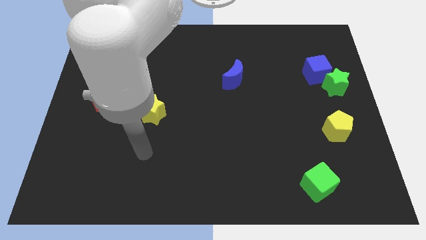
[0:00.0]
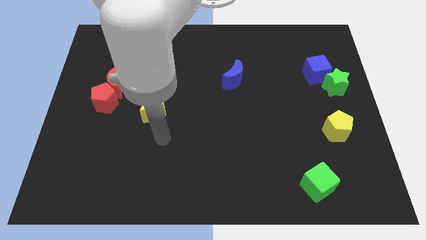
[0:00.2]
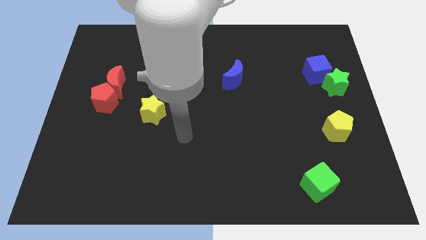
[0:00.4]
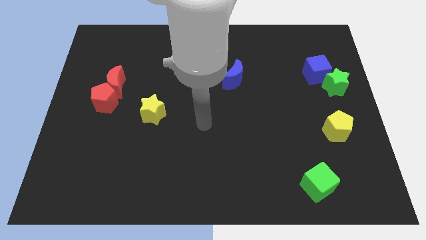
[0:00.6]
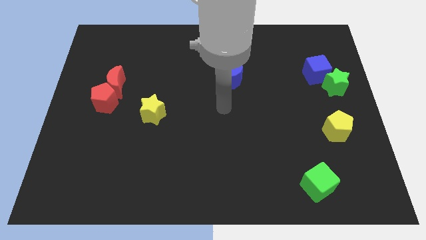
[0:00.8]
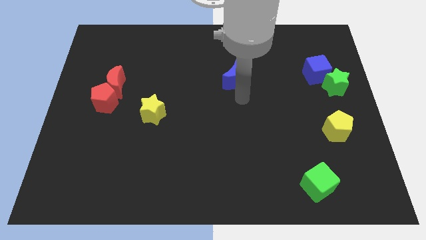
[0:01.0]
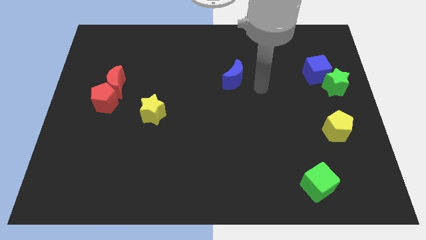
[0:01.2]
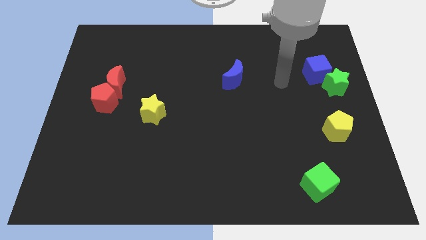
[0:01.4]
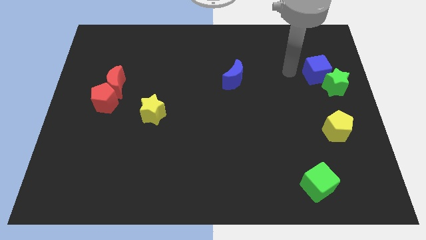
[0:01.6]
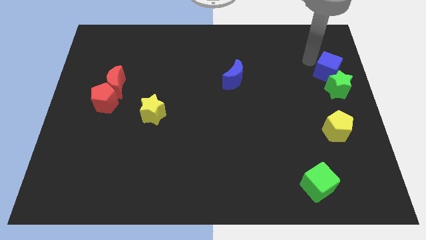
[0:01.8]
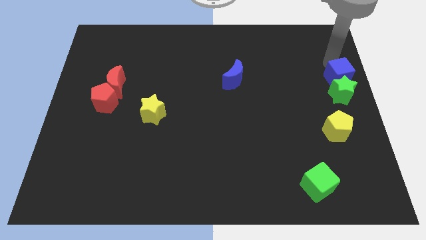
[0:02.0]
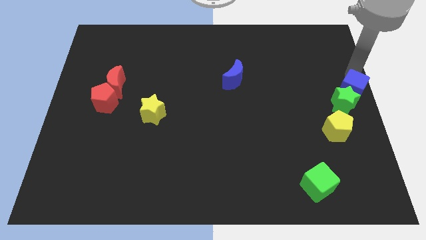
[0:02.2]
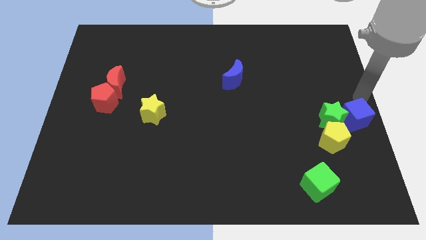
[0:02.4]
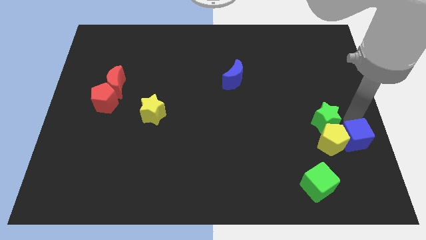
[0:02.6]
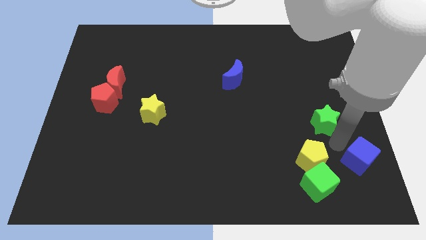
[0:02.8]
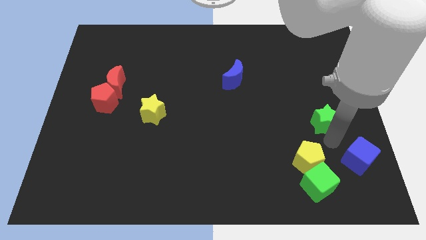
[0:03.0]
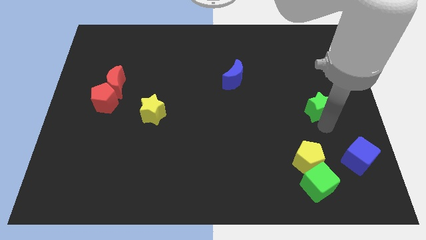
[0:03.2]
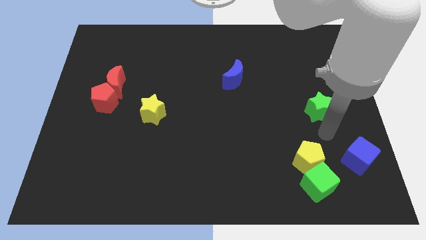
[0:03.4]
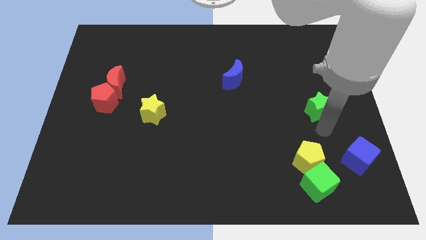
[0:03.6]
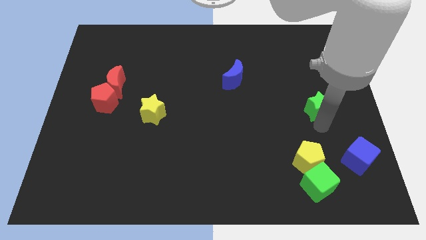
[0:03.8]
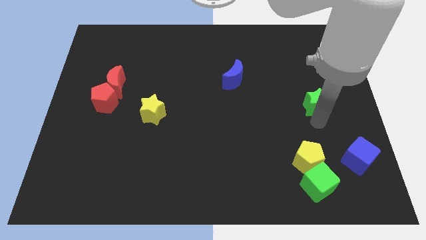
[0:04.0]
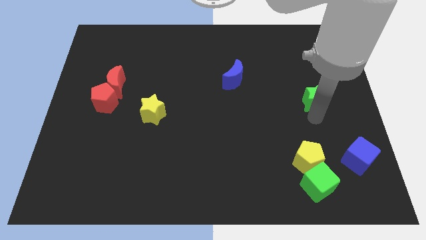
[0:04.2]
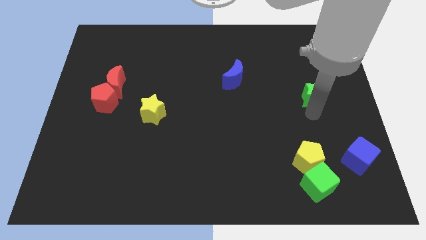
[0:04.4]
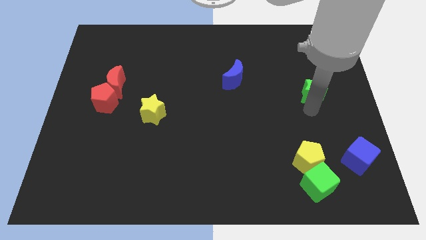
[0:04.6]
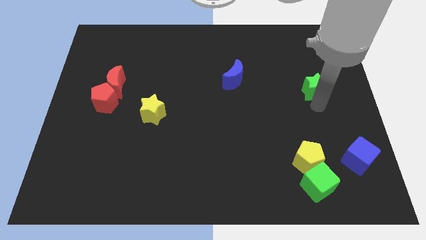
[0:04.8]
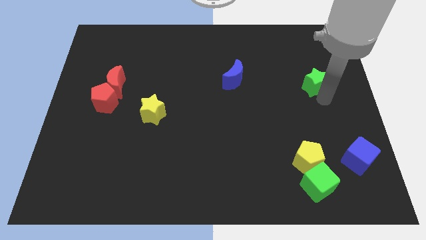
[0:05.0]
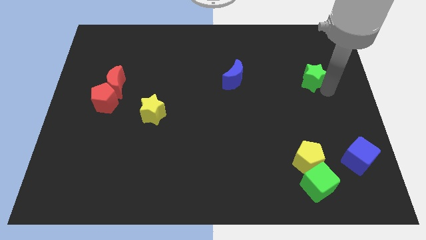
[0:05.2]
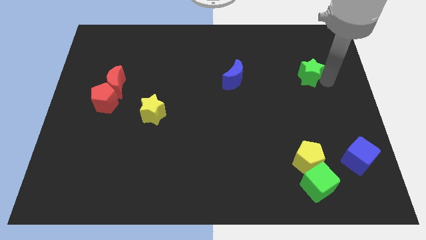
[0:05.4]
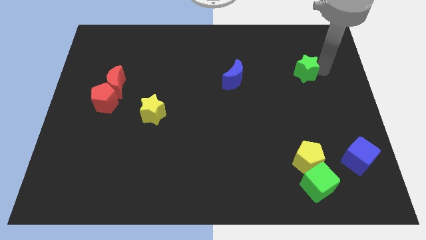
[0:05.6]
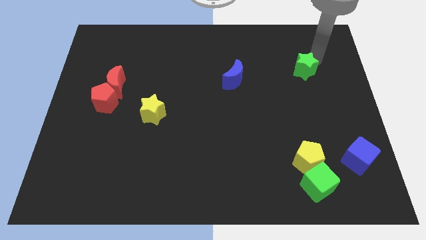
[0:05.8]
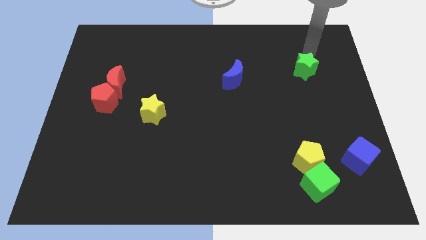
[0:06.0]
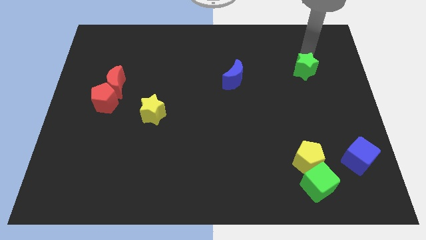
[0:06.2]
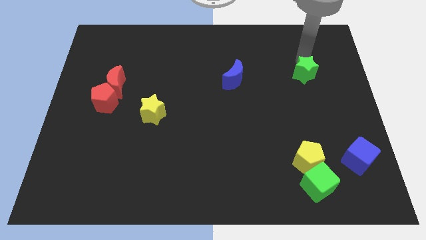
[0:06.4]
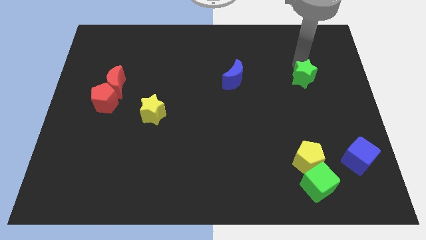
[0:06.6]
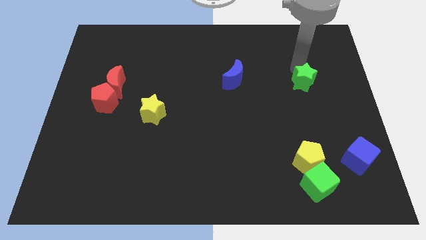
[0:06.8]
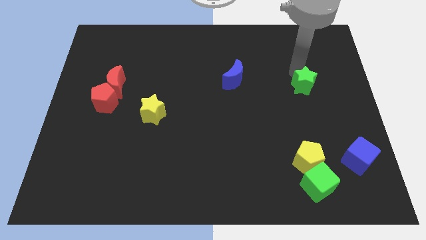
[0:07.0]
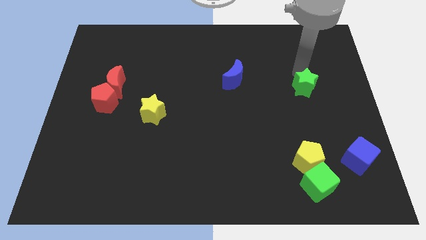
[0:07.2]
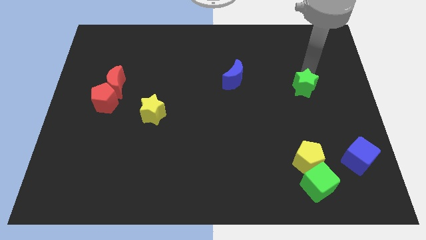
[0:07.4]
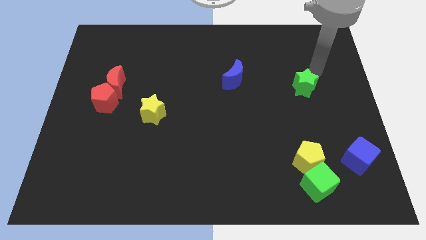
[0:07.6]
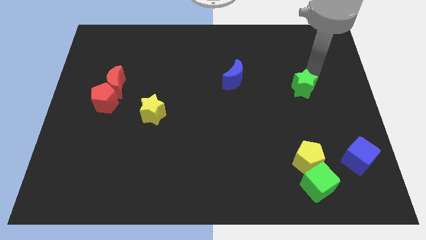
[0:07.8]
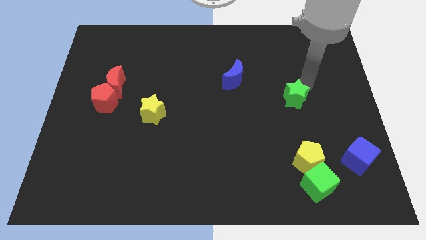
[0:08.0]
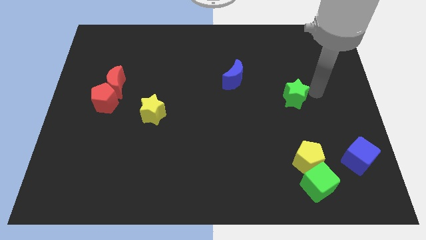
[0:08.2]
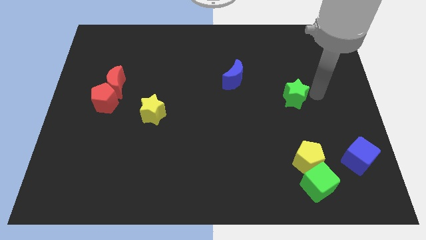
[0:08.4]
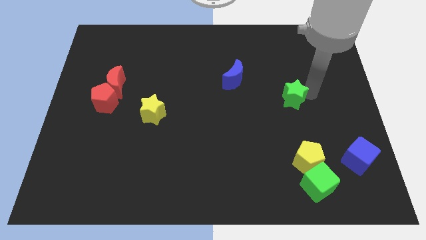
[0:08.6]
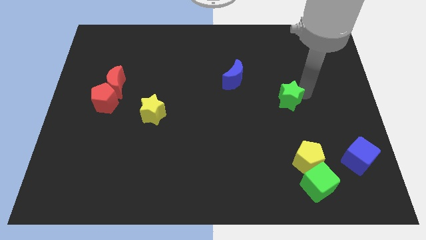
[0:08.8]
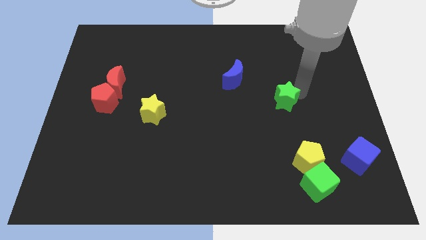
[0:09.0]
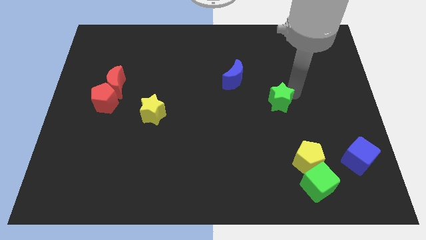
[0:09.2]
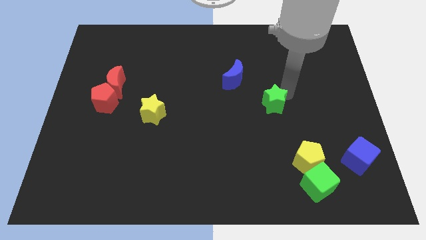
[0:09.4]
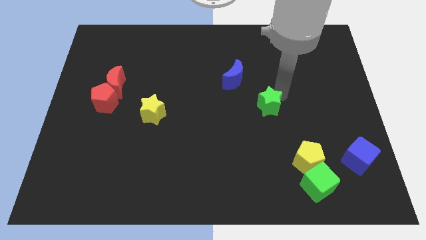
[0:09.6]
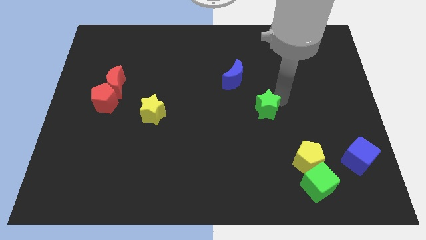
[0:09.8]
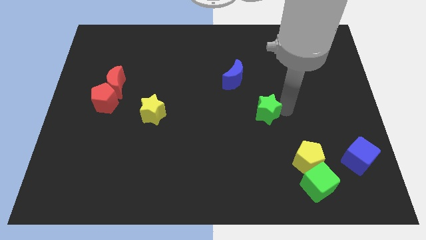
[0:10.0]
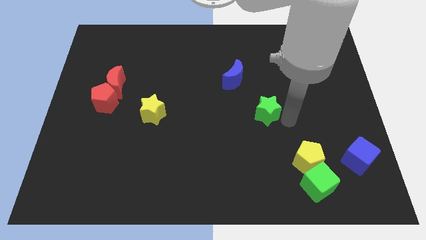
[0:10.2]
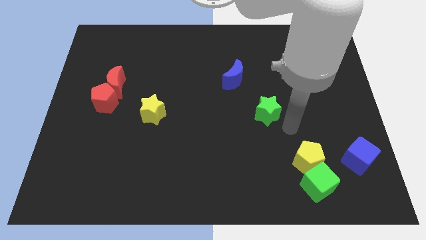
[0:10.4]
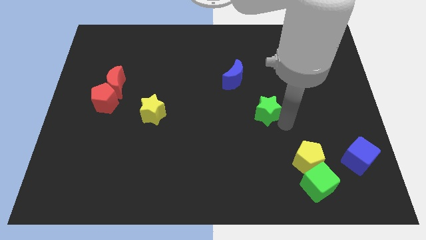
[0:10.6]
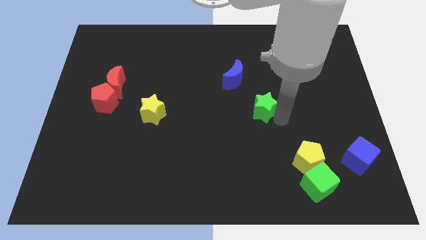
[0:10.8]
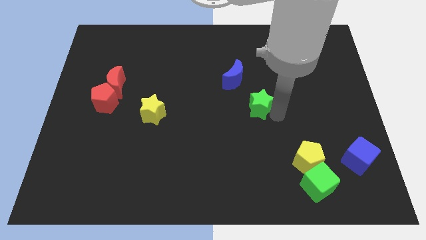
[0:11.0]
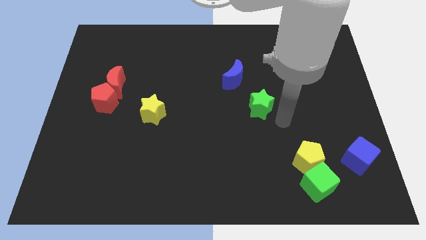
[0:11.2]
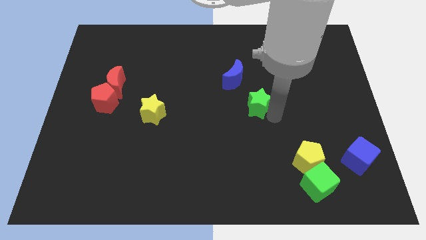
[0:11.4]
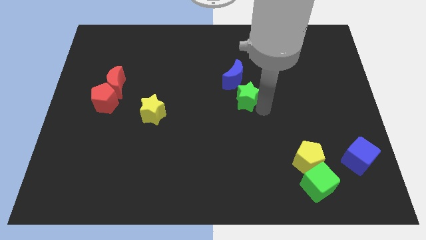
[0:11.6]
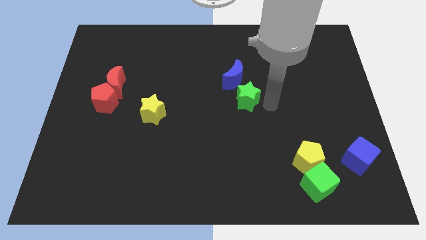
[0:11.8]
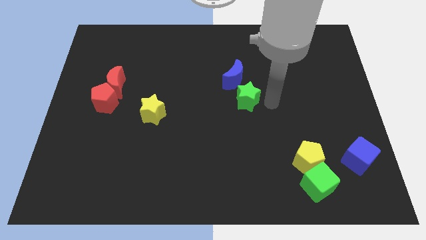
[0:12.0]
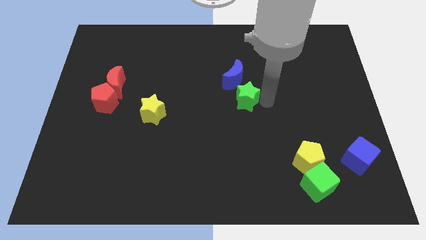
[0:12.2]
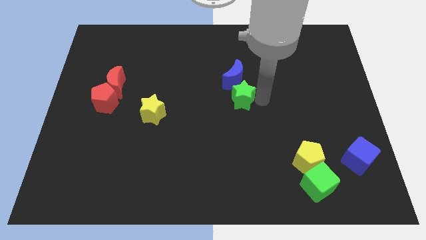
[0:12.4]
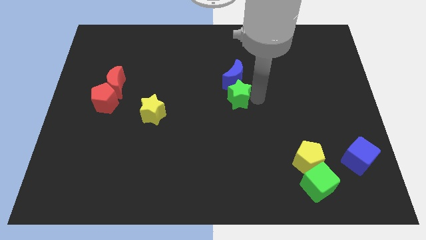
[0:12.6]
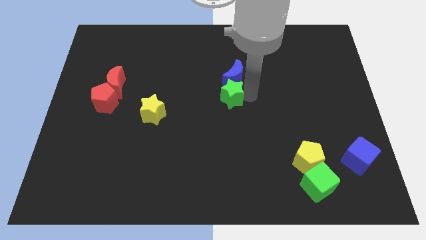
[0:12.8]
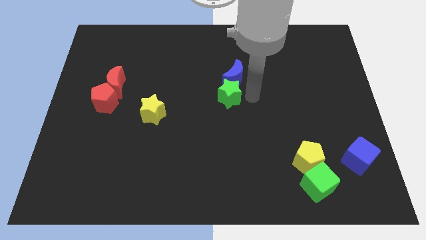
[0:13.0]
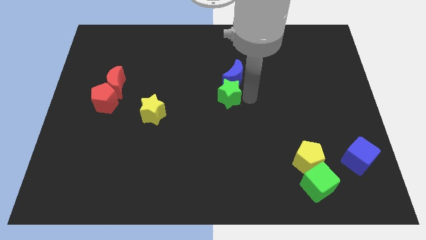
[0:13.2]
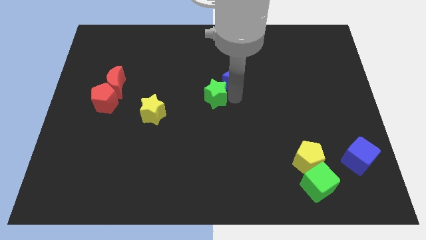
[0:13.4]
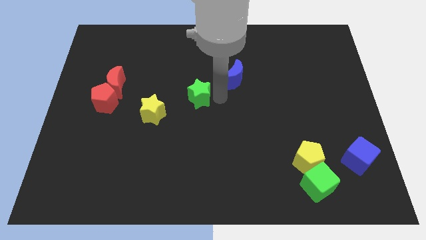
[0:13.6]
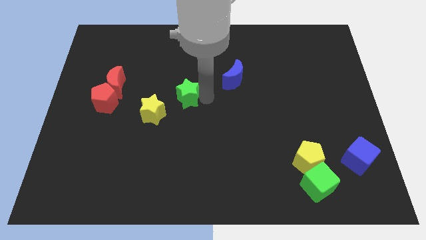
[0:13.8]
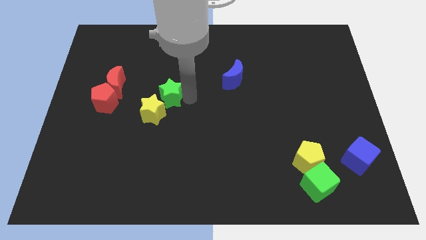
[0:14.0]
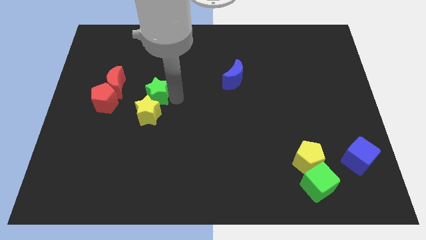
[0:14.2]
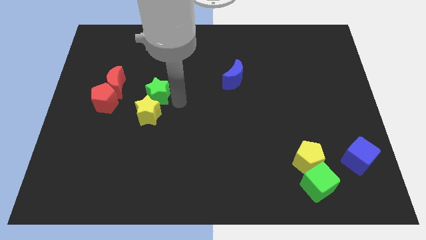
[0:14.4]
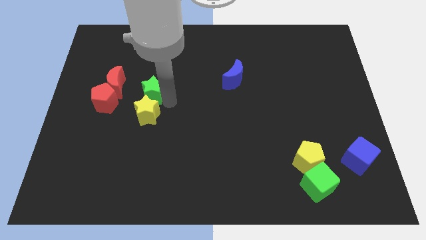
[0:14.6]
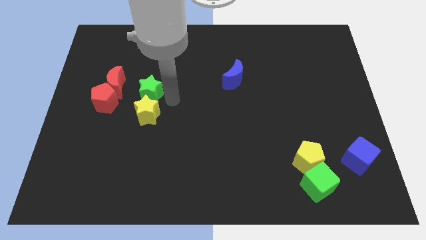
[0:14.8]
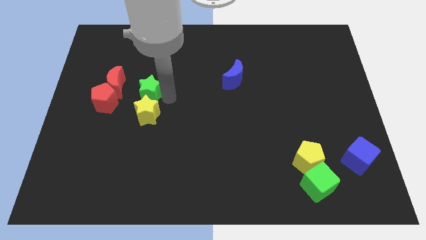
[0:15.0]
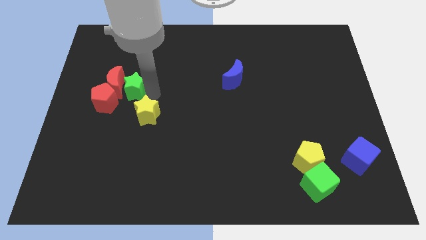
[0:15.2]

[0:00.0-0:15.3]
move the green star towards the red moon
